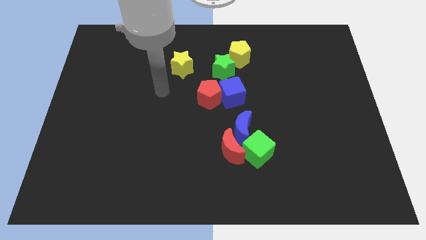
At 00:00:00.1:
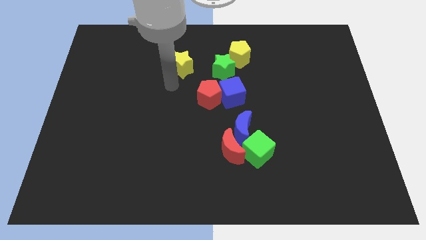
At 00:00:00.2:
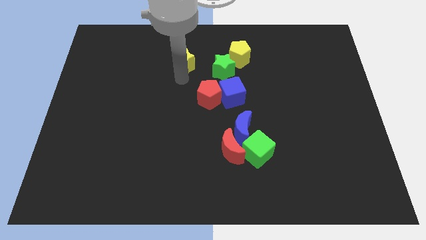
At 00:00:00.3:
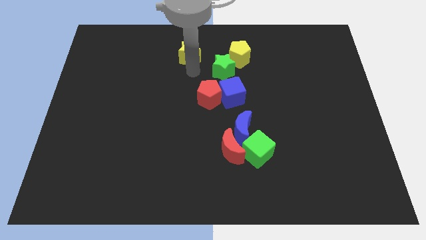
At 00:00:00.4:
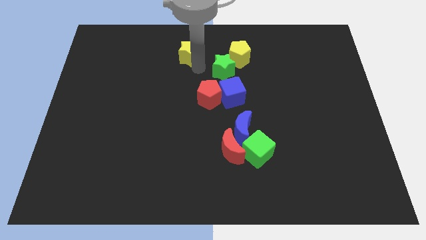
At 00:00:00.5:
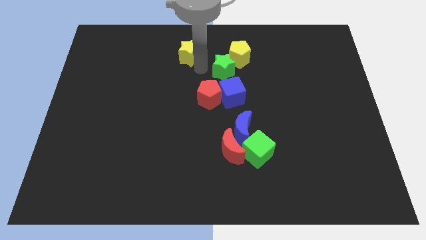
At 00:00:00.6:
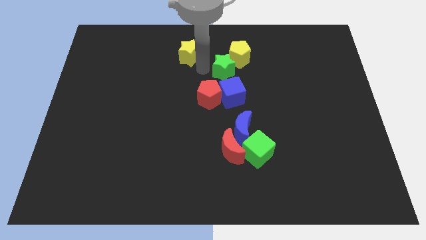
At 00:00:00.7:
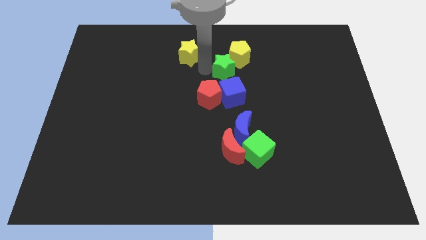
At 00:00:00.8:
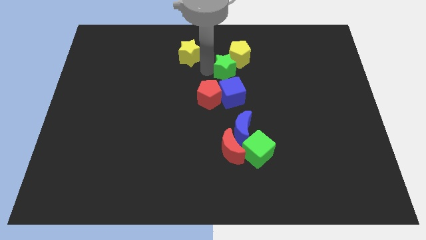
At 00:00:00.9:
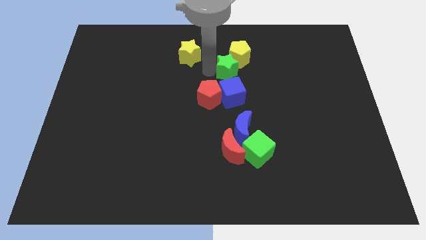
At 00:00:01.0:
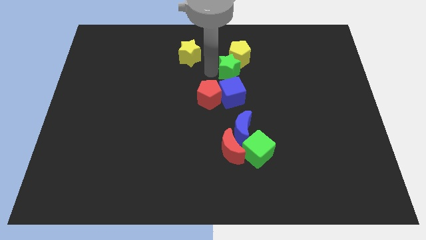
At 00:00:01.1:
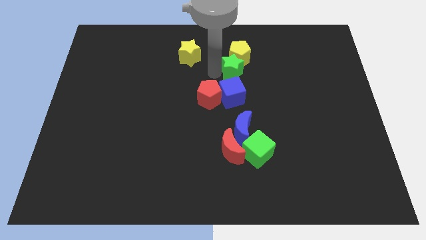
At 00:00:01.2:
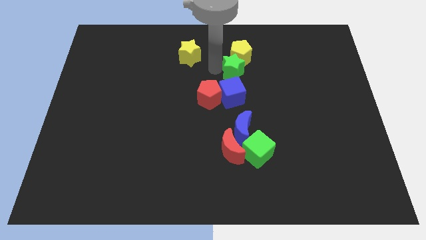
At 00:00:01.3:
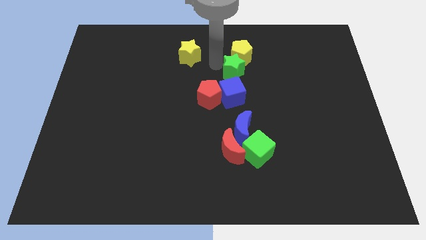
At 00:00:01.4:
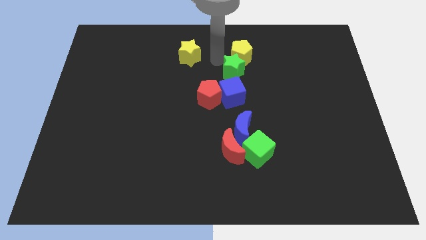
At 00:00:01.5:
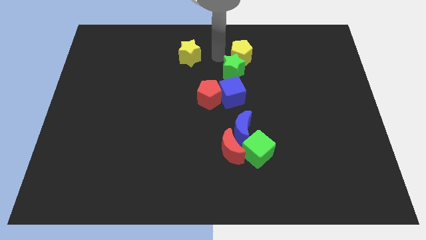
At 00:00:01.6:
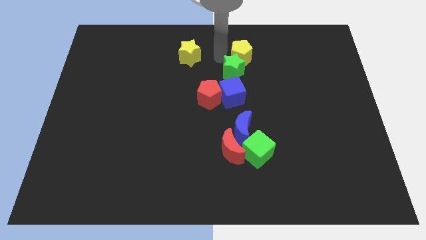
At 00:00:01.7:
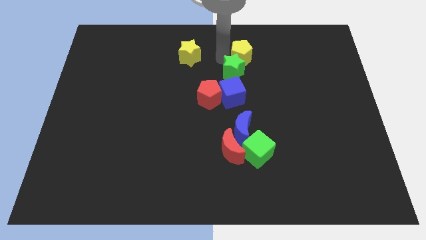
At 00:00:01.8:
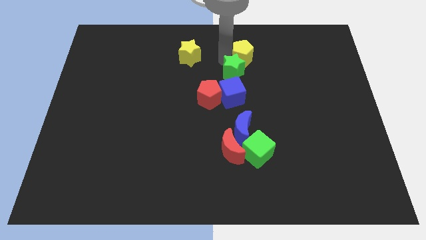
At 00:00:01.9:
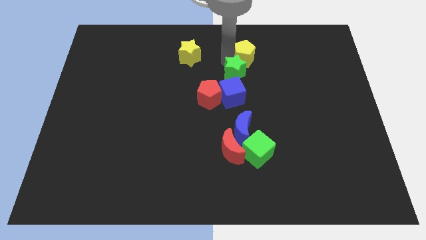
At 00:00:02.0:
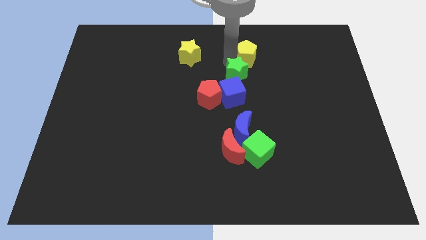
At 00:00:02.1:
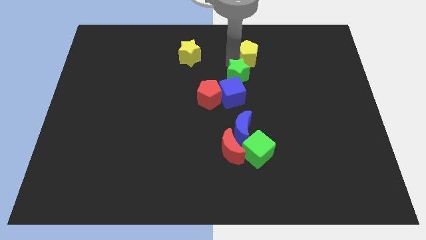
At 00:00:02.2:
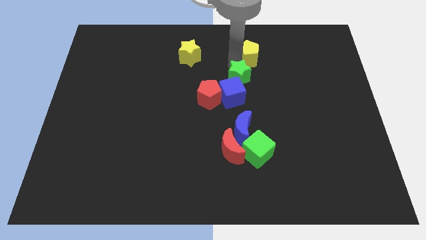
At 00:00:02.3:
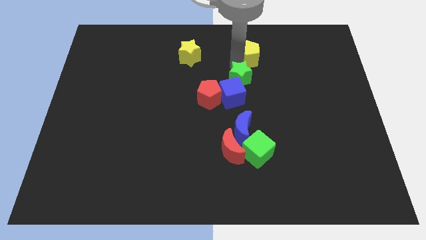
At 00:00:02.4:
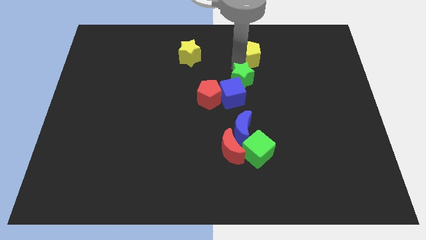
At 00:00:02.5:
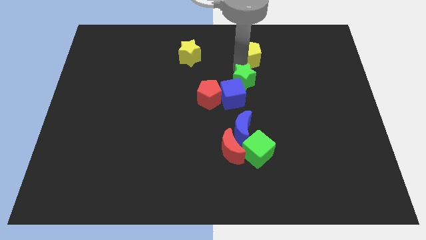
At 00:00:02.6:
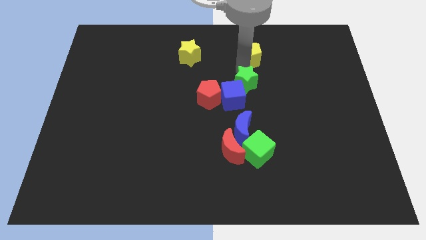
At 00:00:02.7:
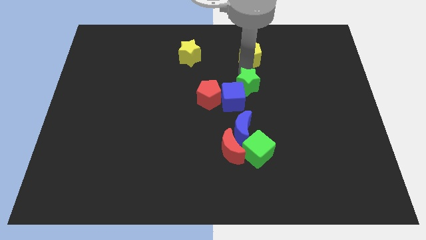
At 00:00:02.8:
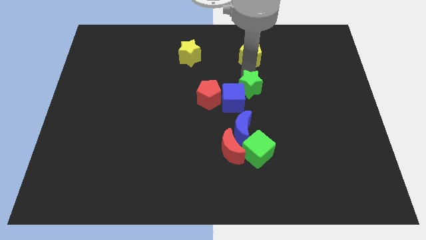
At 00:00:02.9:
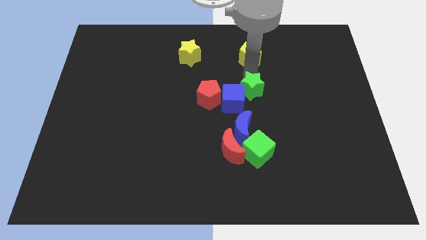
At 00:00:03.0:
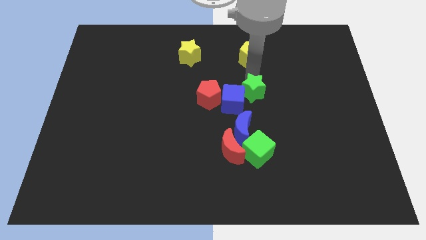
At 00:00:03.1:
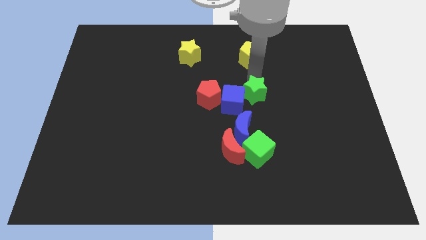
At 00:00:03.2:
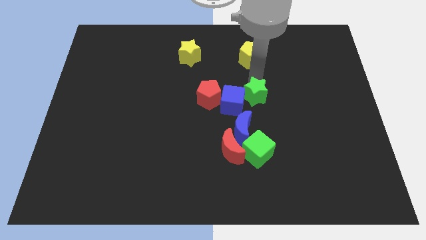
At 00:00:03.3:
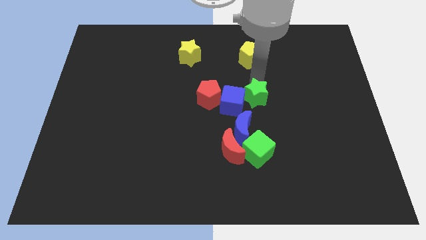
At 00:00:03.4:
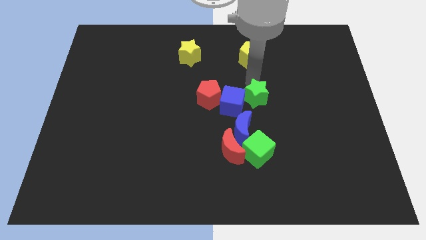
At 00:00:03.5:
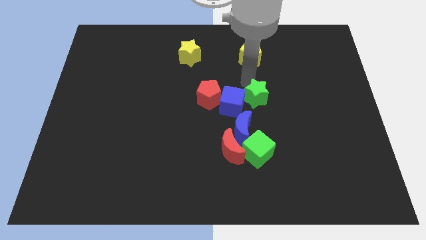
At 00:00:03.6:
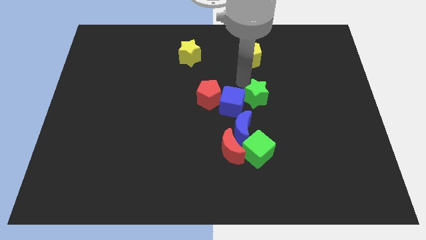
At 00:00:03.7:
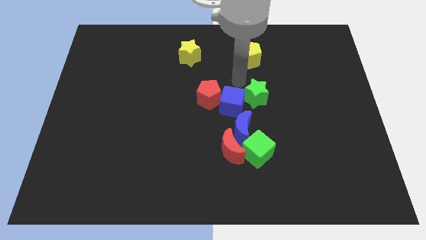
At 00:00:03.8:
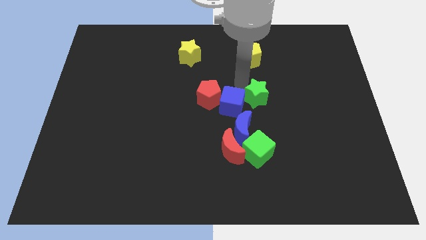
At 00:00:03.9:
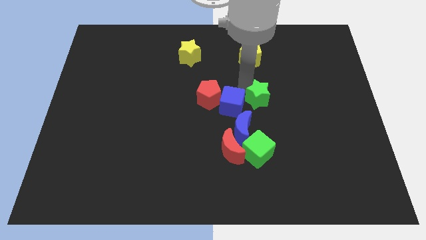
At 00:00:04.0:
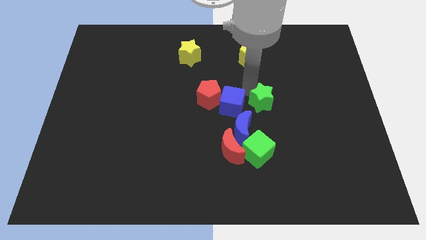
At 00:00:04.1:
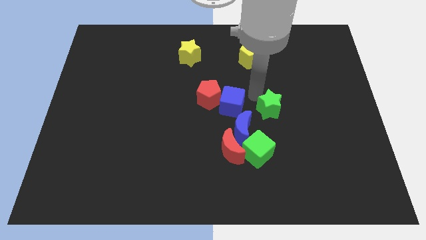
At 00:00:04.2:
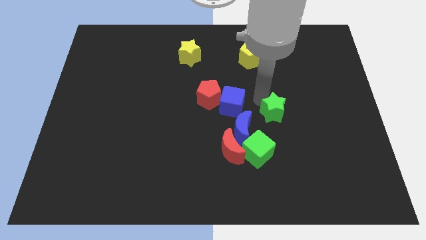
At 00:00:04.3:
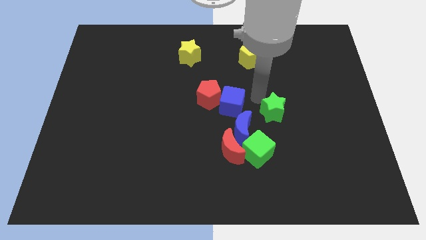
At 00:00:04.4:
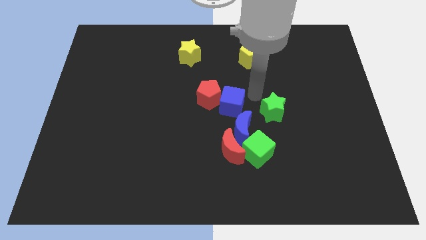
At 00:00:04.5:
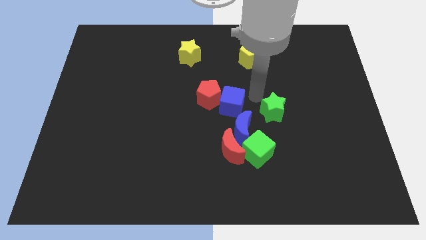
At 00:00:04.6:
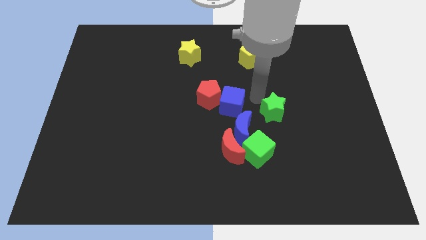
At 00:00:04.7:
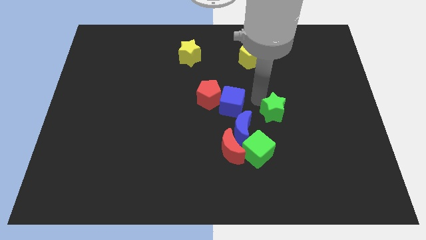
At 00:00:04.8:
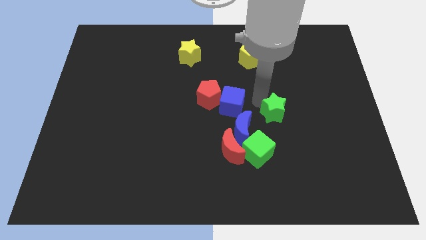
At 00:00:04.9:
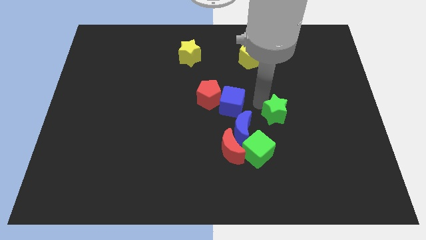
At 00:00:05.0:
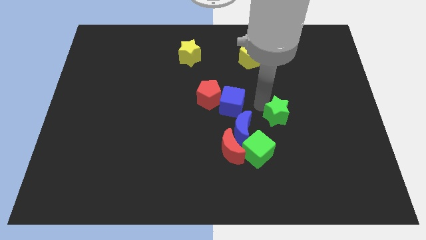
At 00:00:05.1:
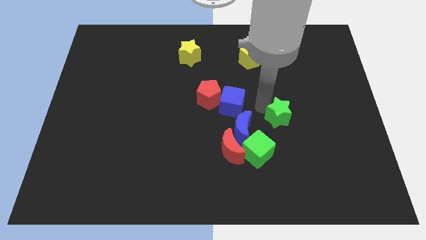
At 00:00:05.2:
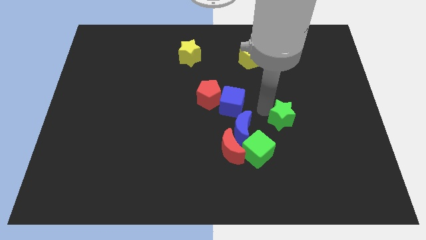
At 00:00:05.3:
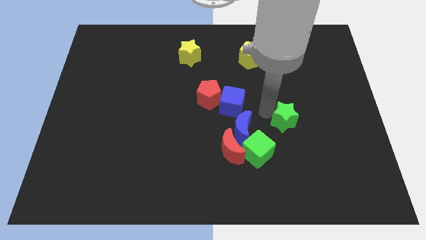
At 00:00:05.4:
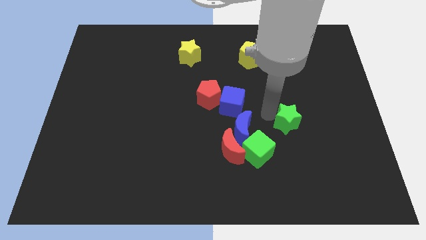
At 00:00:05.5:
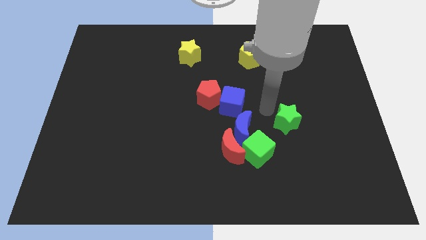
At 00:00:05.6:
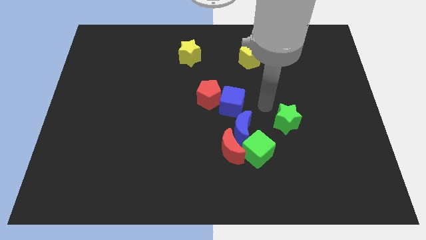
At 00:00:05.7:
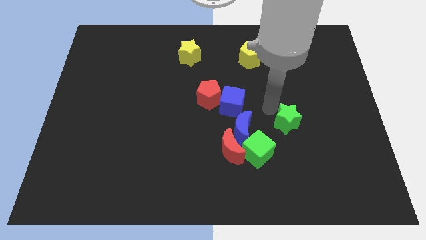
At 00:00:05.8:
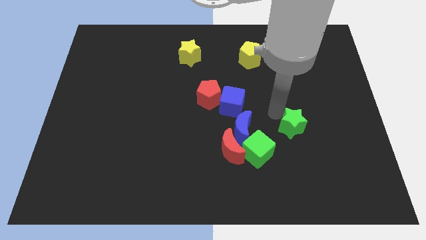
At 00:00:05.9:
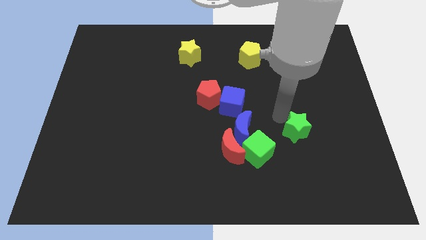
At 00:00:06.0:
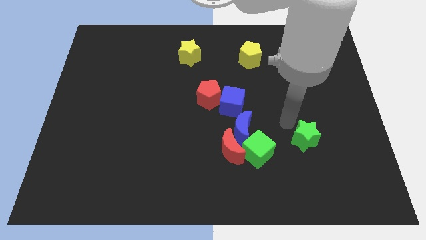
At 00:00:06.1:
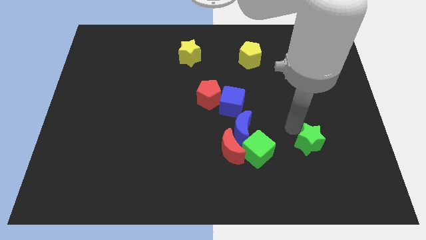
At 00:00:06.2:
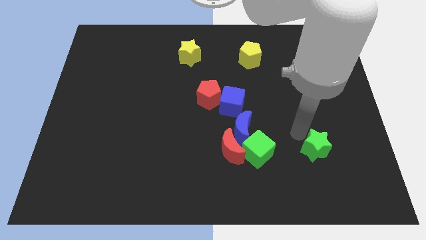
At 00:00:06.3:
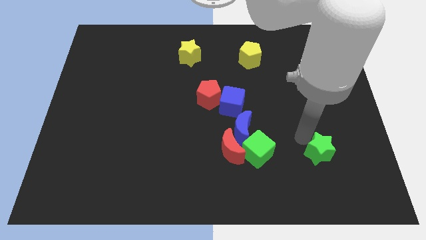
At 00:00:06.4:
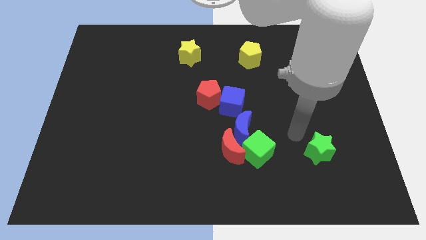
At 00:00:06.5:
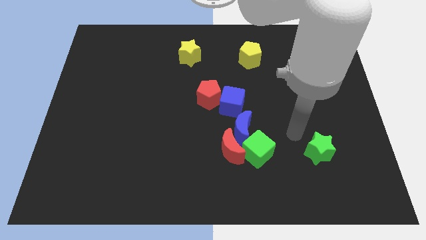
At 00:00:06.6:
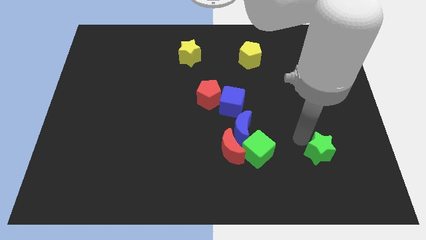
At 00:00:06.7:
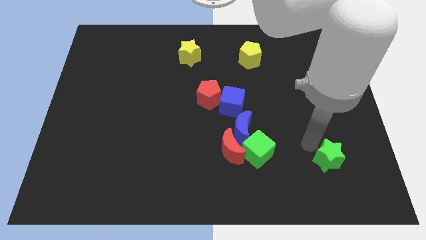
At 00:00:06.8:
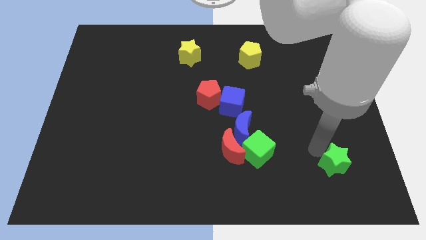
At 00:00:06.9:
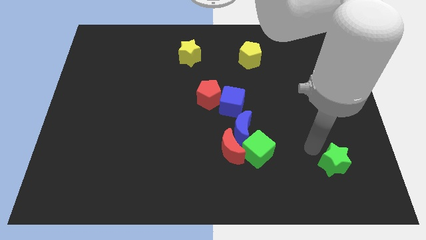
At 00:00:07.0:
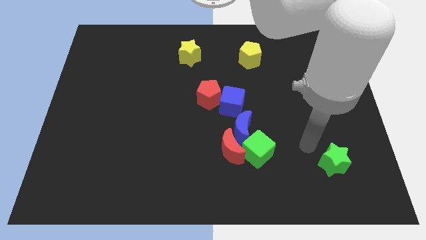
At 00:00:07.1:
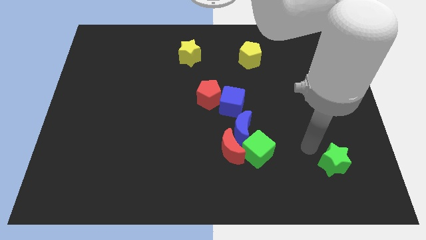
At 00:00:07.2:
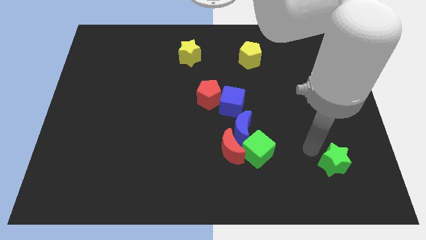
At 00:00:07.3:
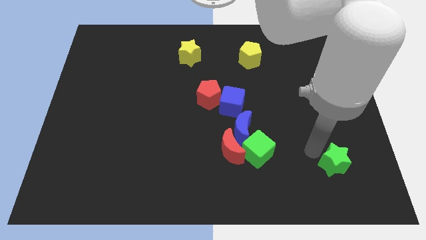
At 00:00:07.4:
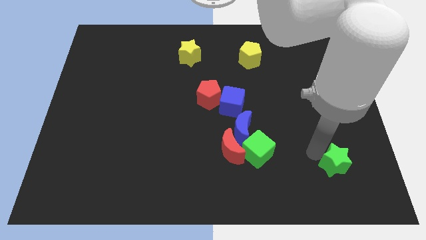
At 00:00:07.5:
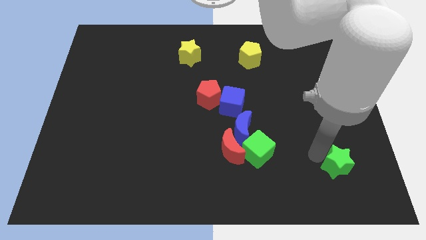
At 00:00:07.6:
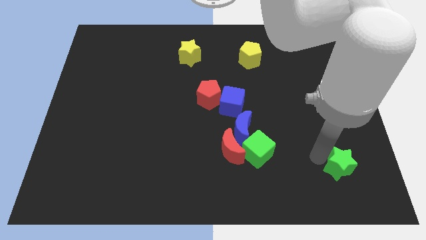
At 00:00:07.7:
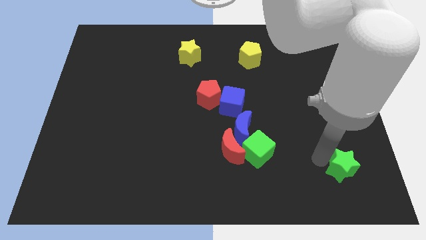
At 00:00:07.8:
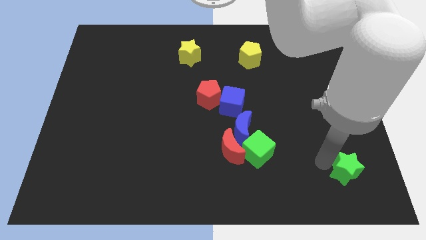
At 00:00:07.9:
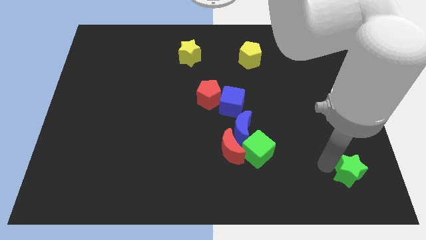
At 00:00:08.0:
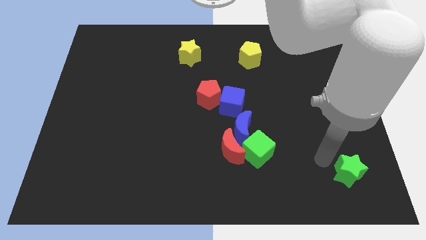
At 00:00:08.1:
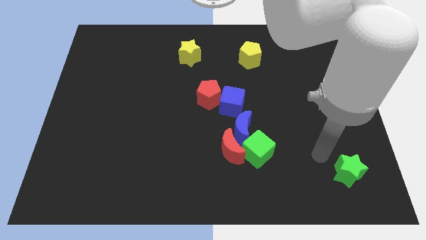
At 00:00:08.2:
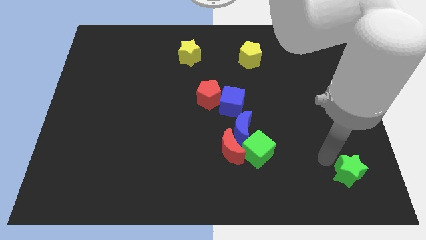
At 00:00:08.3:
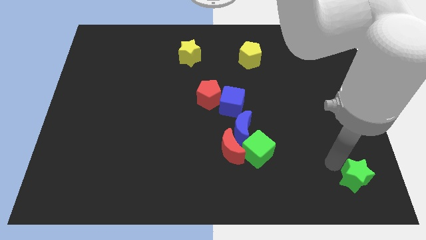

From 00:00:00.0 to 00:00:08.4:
put the green star to the bottom right
